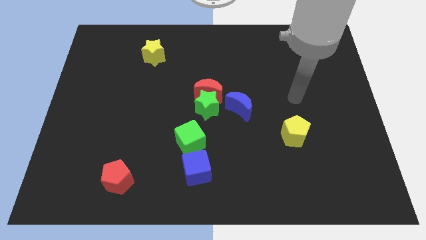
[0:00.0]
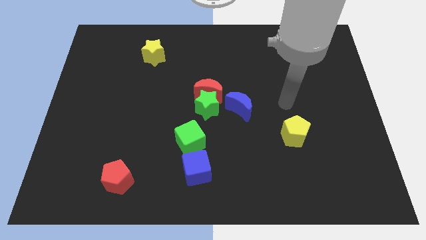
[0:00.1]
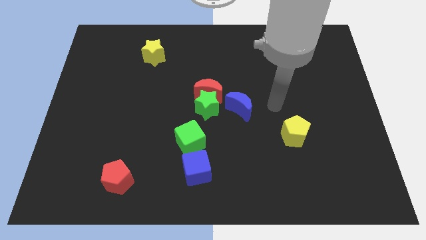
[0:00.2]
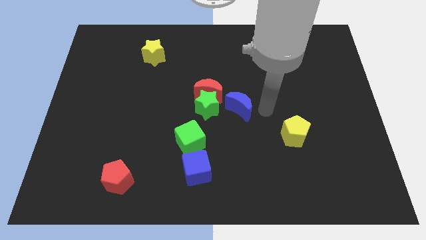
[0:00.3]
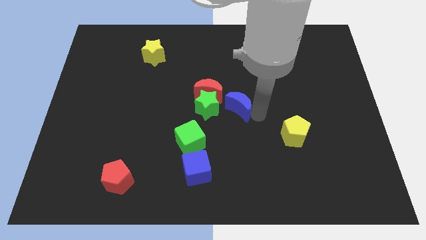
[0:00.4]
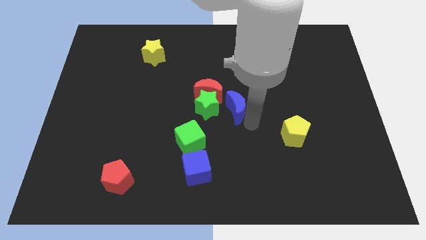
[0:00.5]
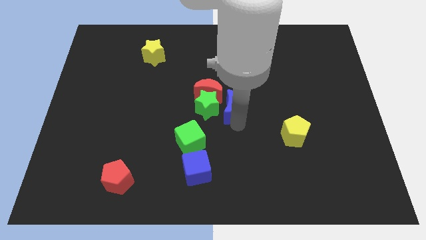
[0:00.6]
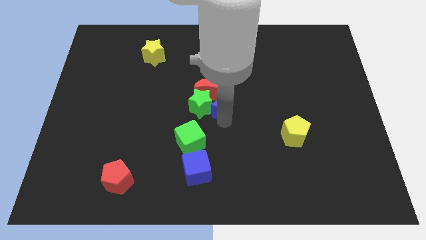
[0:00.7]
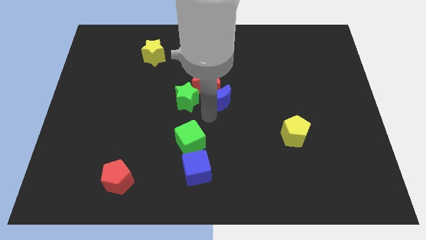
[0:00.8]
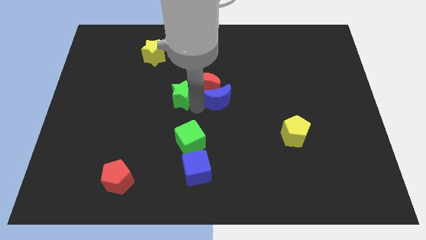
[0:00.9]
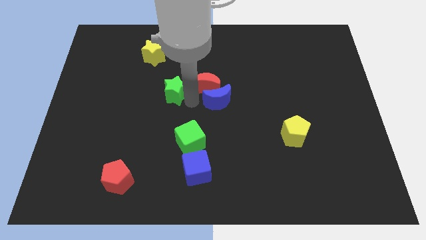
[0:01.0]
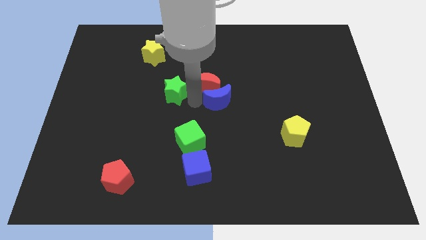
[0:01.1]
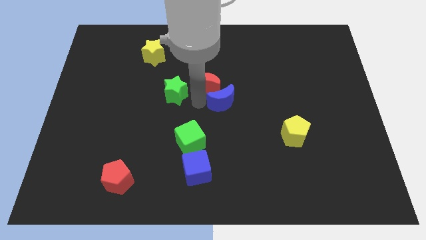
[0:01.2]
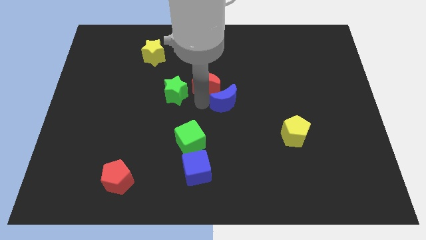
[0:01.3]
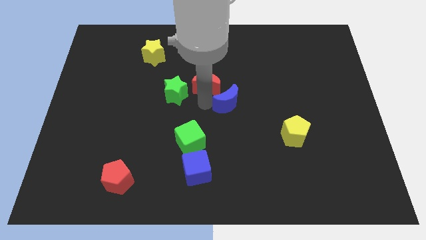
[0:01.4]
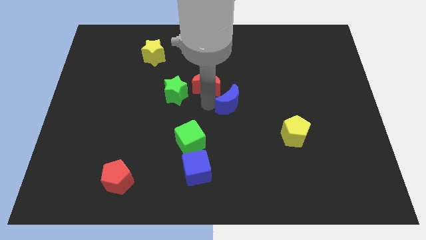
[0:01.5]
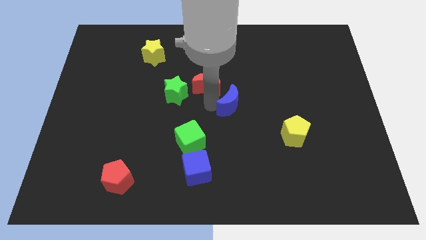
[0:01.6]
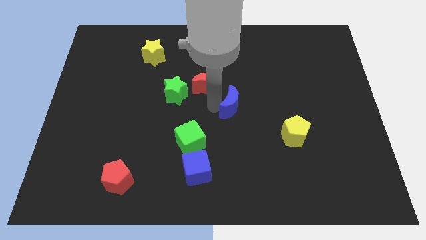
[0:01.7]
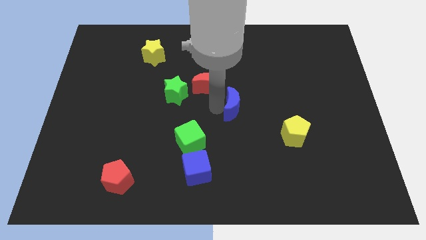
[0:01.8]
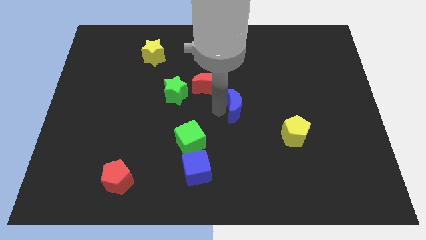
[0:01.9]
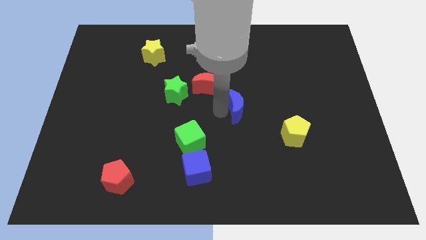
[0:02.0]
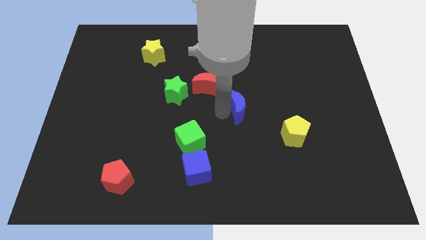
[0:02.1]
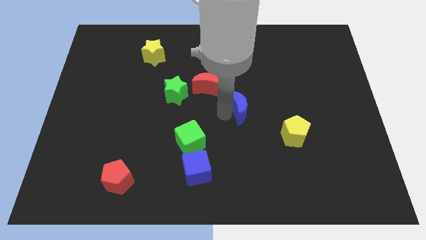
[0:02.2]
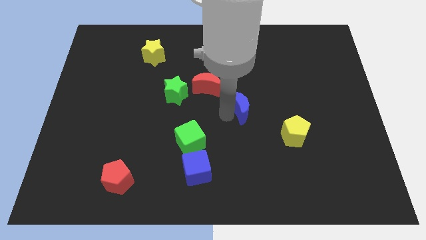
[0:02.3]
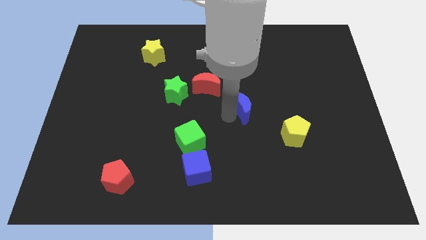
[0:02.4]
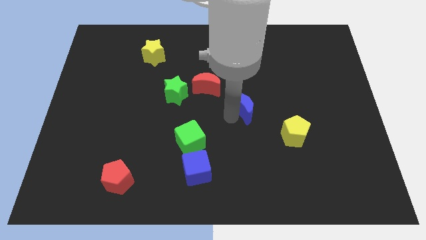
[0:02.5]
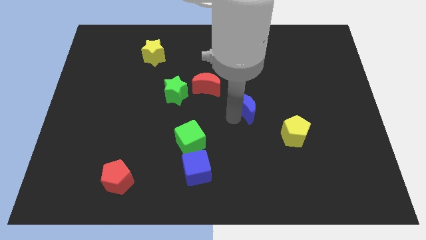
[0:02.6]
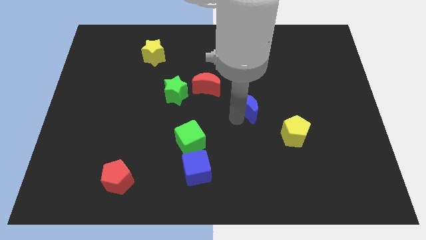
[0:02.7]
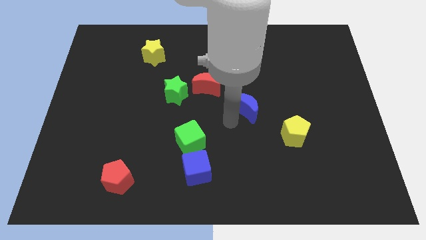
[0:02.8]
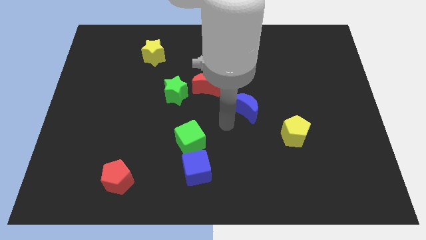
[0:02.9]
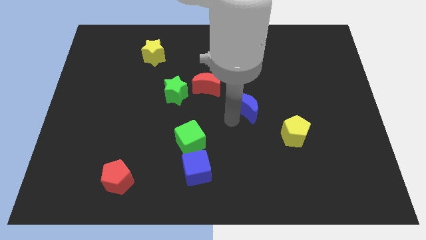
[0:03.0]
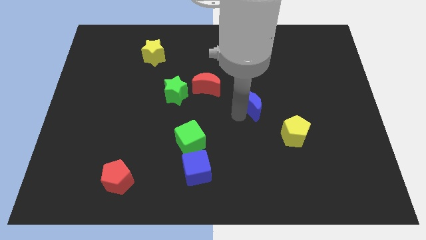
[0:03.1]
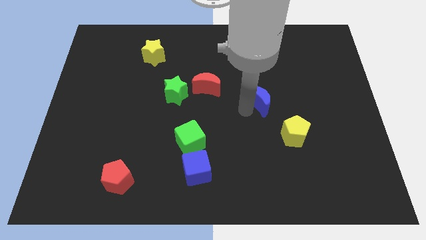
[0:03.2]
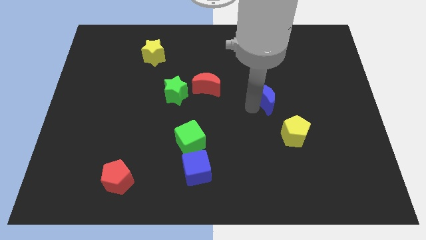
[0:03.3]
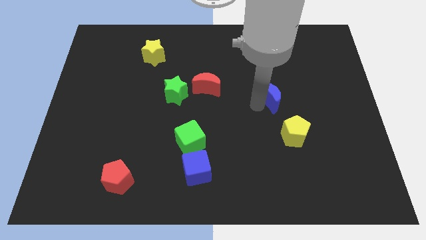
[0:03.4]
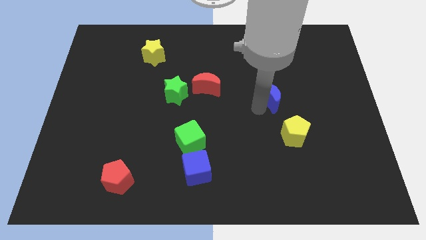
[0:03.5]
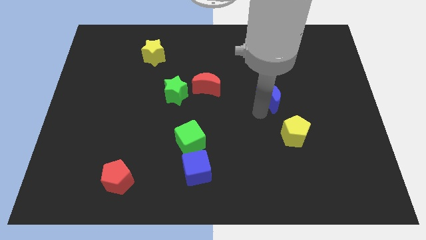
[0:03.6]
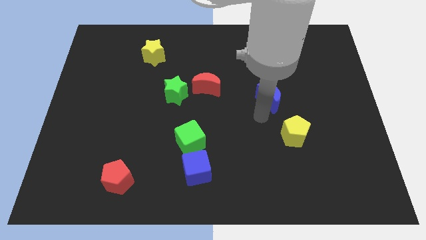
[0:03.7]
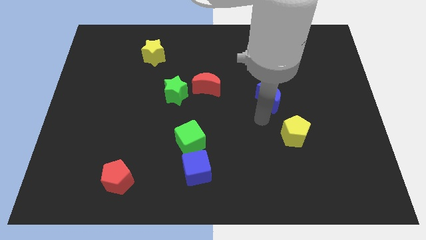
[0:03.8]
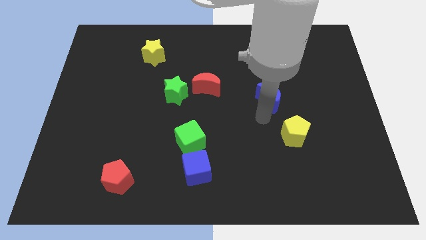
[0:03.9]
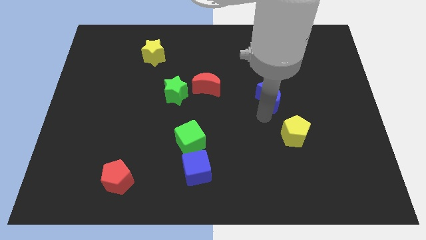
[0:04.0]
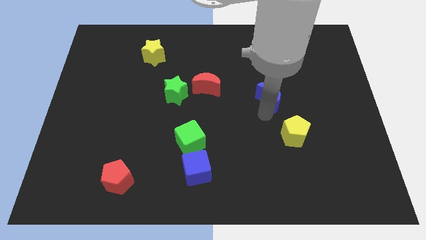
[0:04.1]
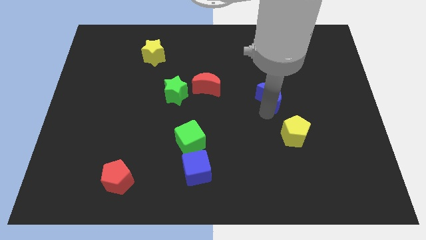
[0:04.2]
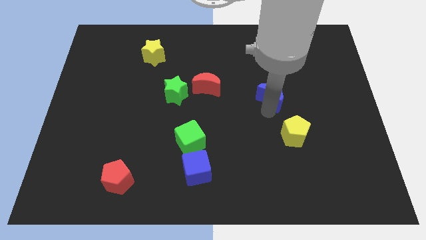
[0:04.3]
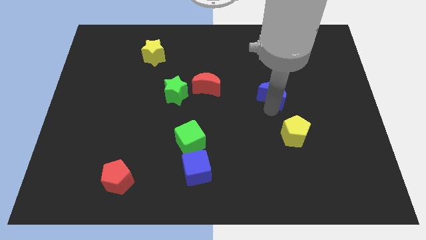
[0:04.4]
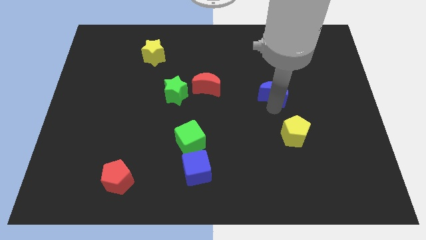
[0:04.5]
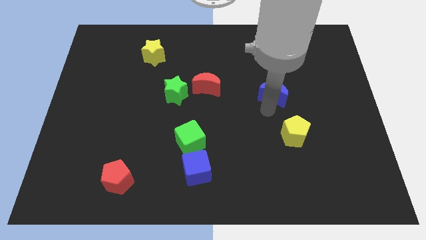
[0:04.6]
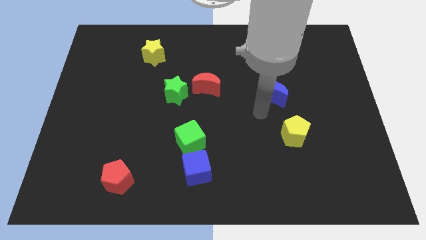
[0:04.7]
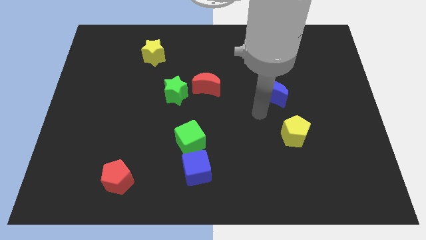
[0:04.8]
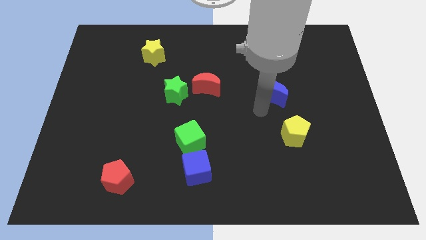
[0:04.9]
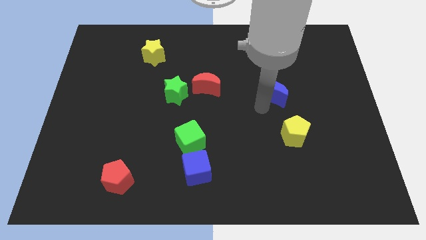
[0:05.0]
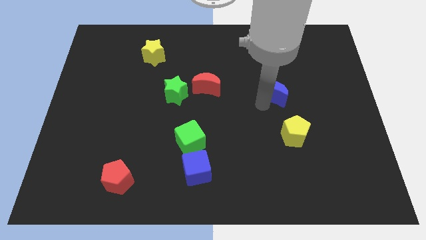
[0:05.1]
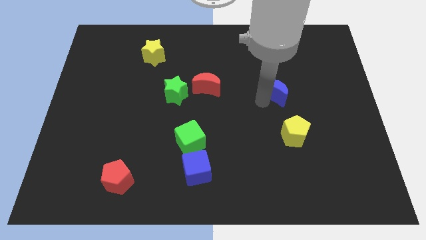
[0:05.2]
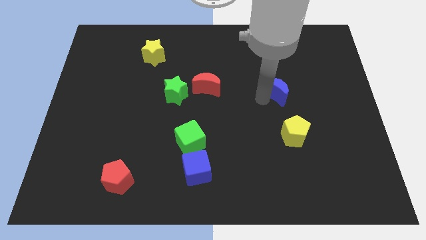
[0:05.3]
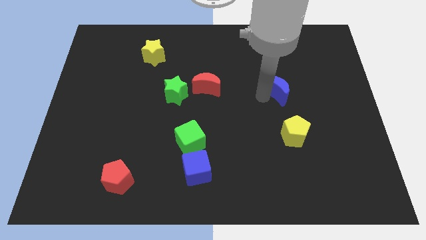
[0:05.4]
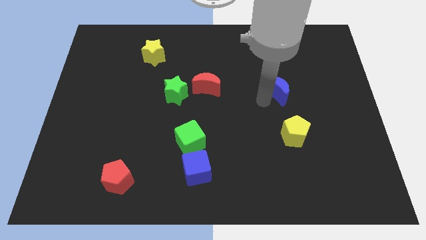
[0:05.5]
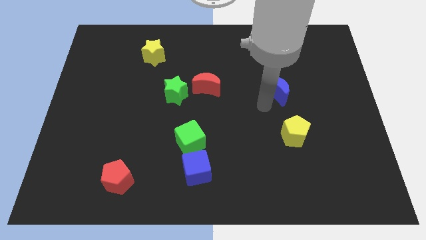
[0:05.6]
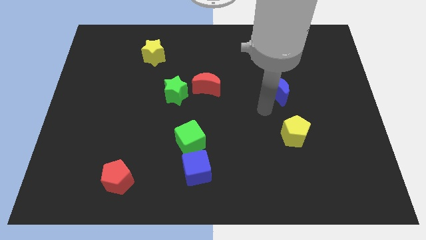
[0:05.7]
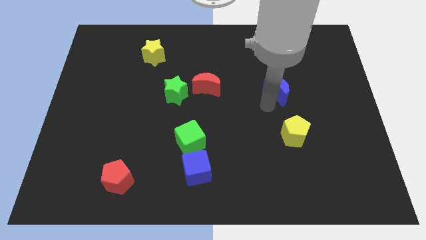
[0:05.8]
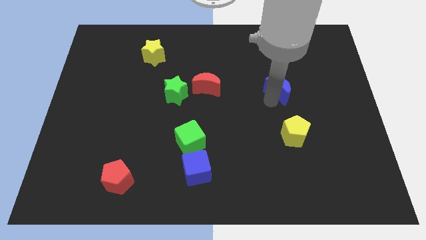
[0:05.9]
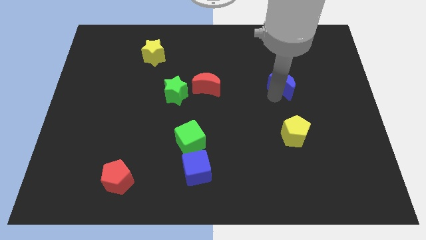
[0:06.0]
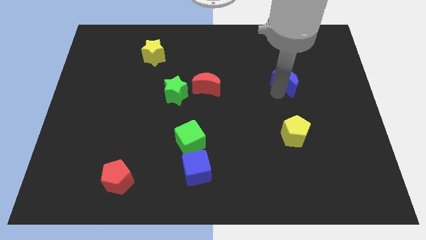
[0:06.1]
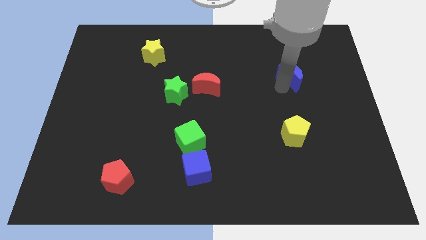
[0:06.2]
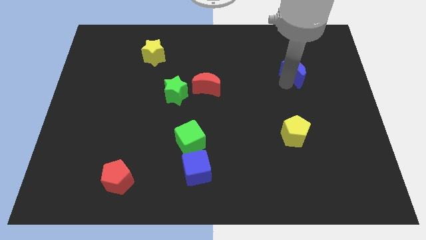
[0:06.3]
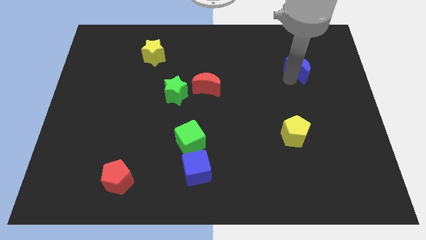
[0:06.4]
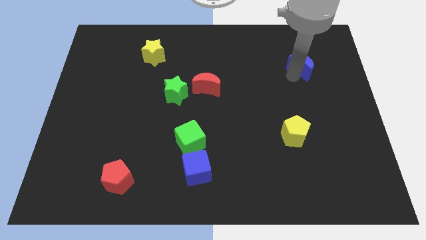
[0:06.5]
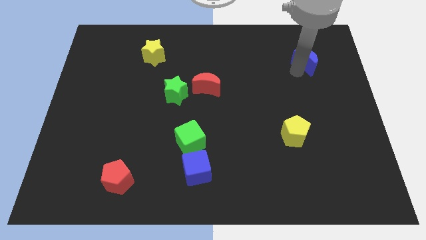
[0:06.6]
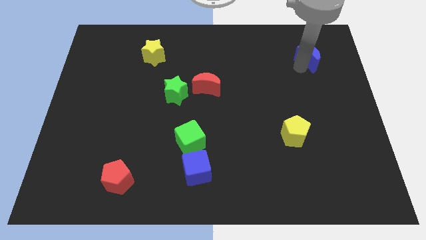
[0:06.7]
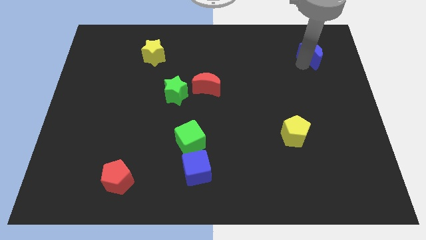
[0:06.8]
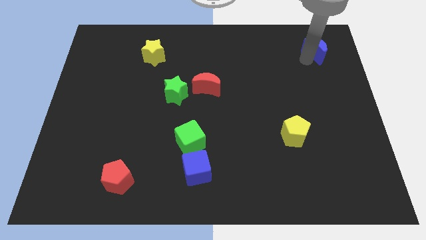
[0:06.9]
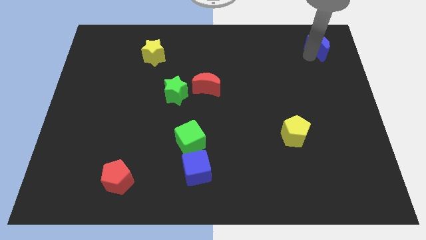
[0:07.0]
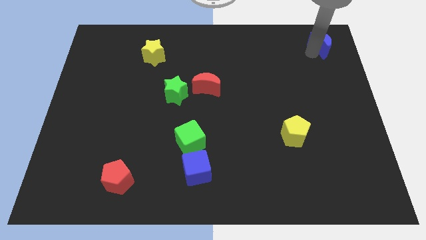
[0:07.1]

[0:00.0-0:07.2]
move the blue moon to the top right of the board
